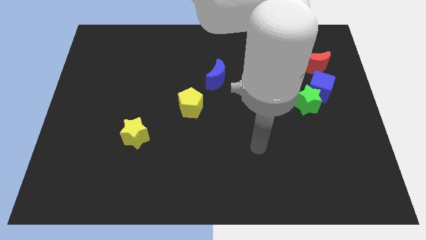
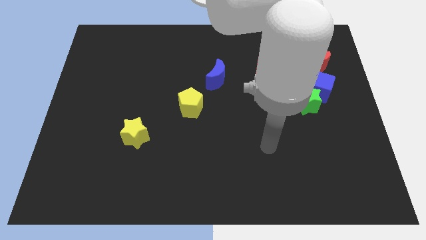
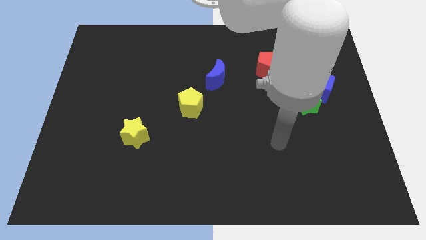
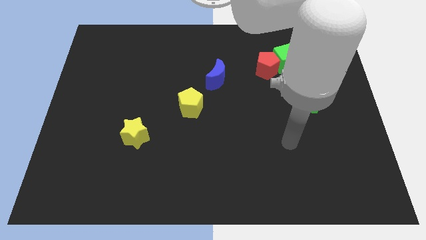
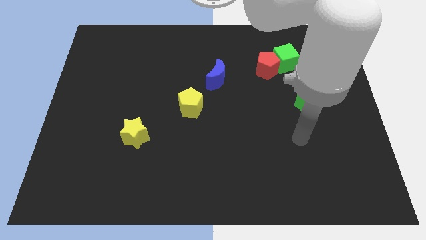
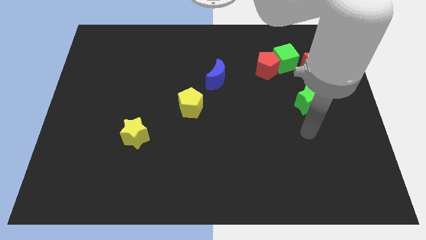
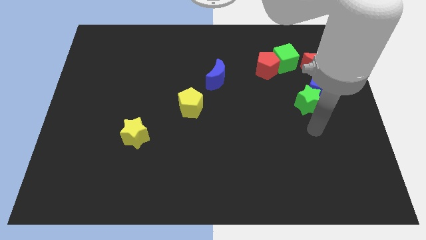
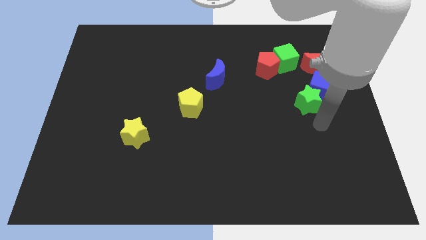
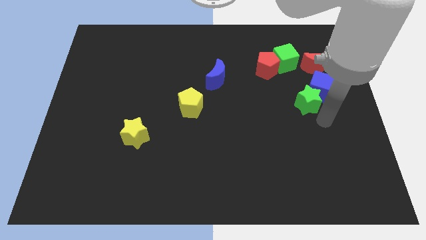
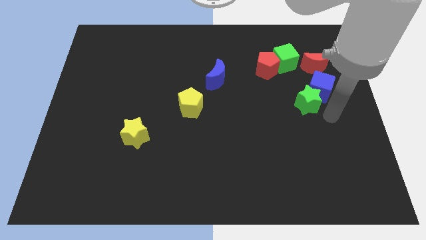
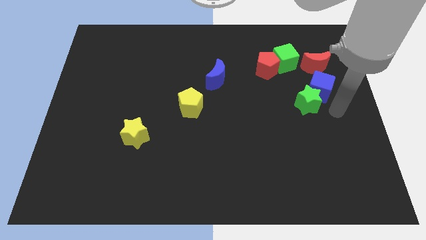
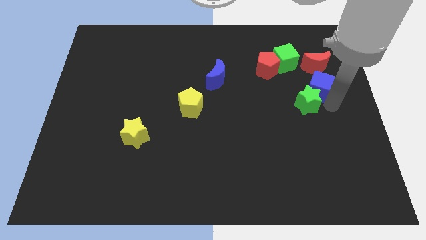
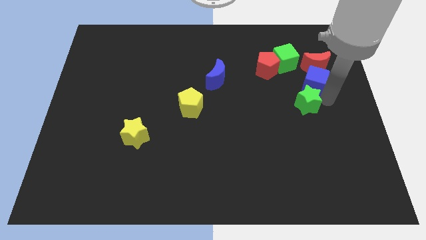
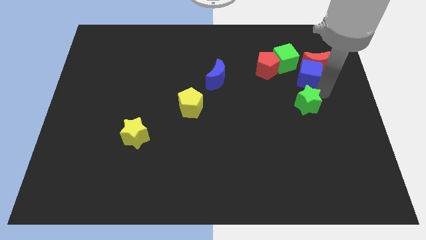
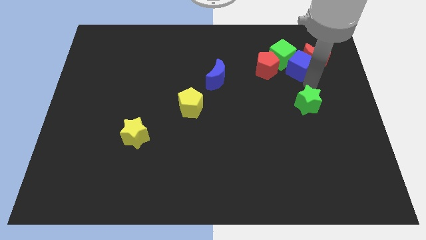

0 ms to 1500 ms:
pull the green star apart from the blue cube

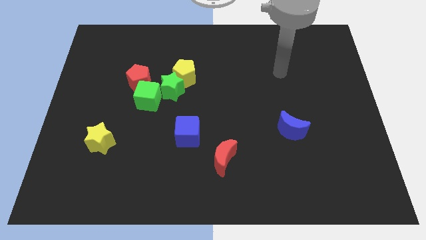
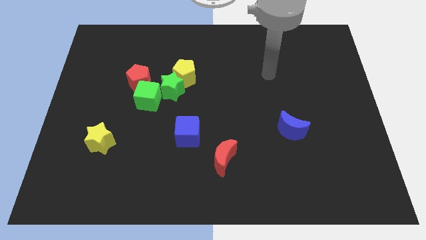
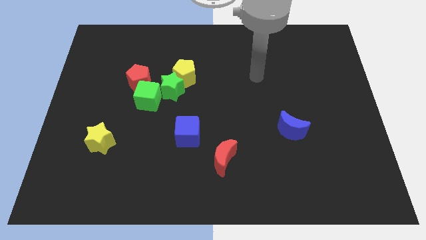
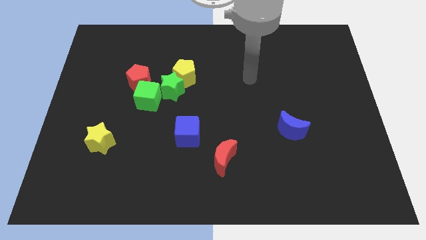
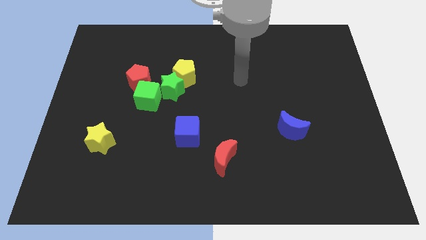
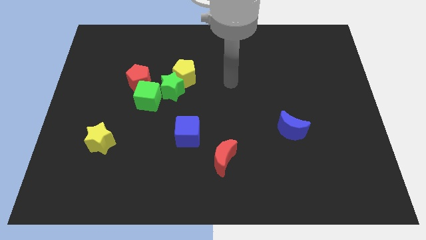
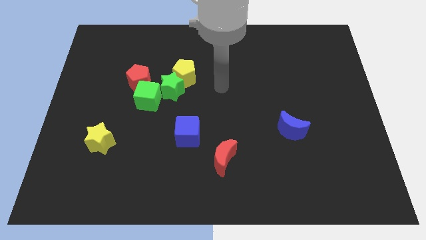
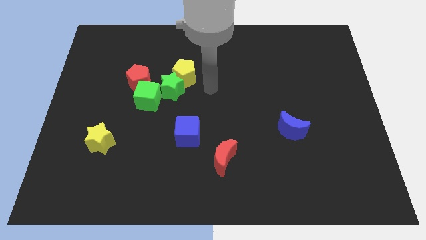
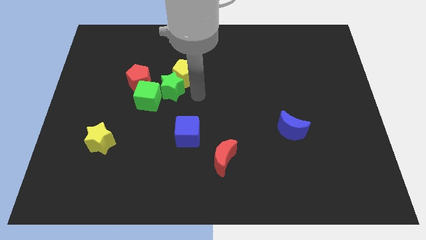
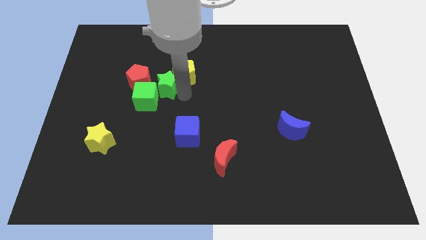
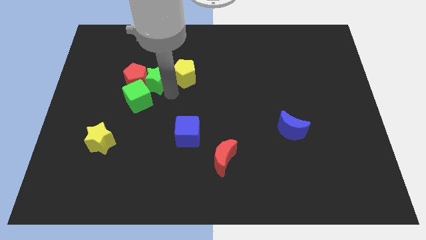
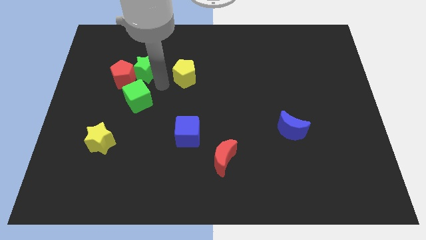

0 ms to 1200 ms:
separate the yellow pentagon from the green star

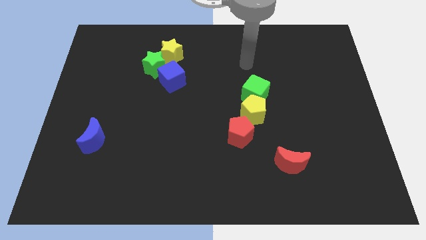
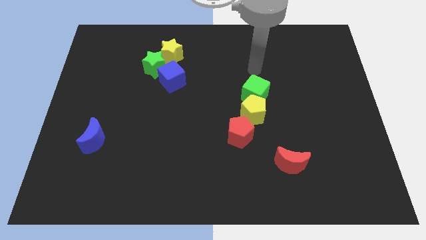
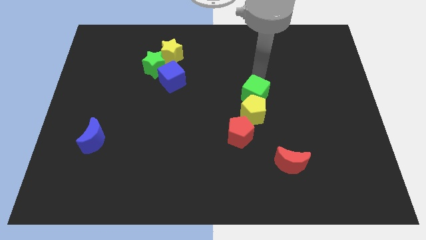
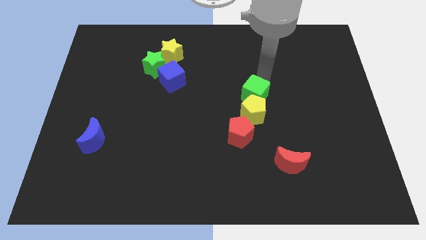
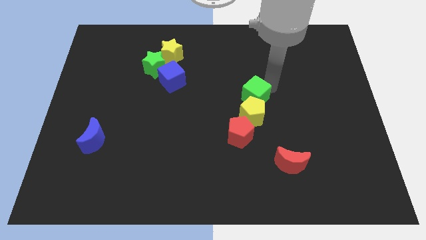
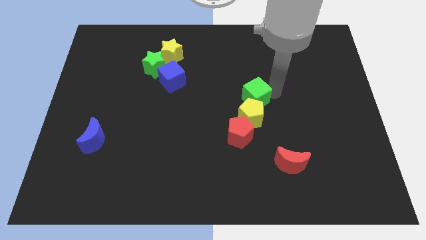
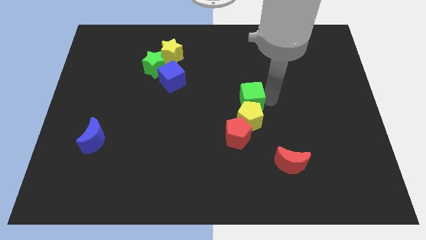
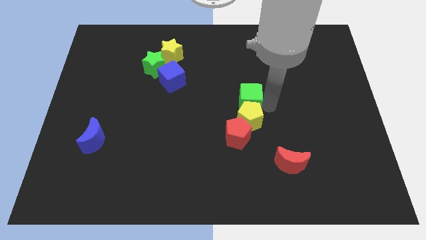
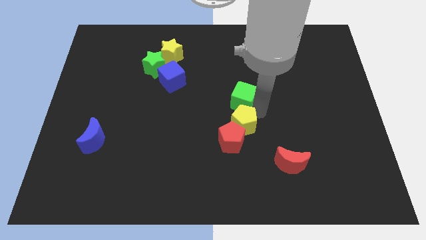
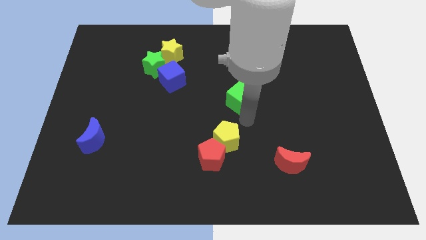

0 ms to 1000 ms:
pull the green cube apart from the yellow pentagon

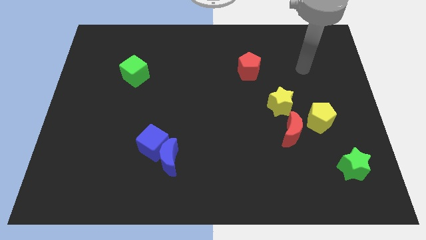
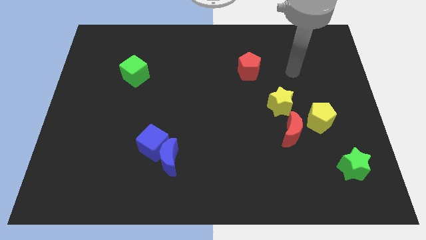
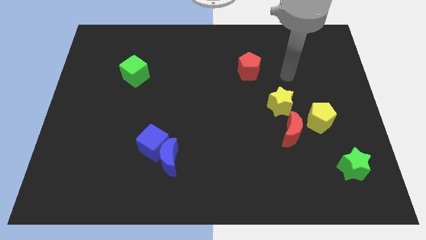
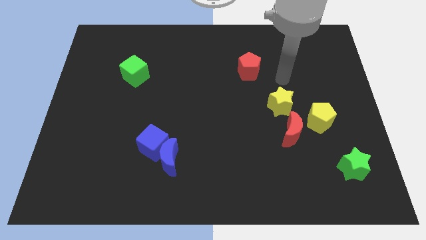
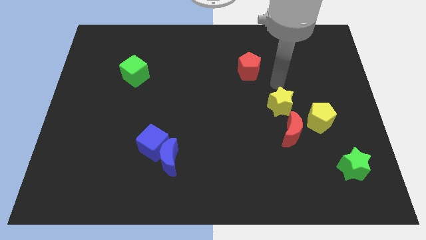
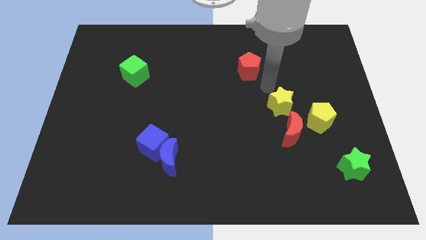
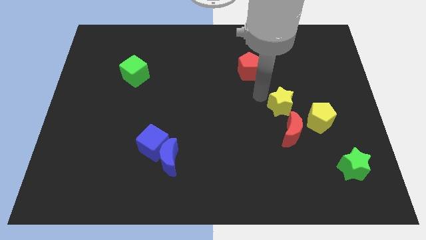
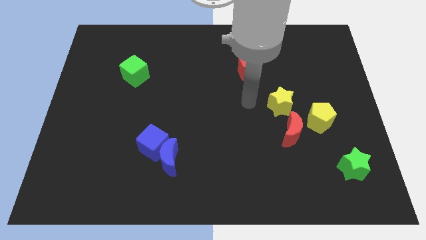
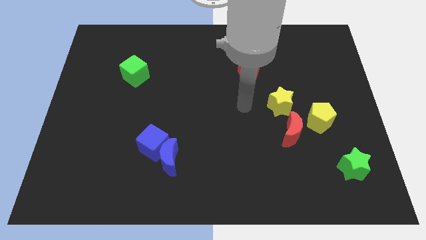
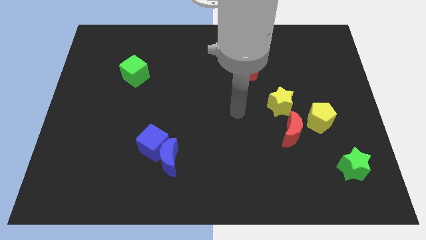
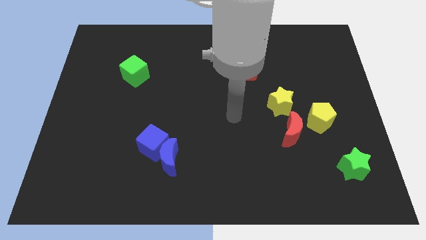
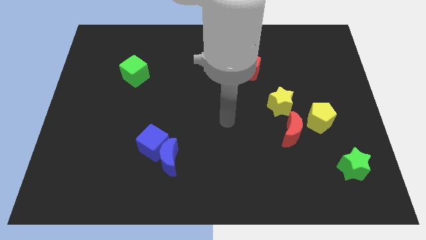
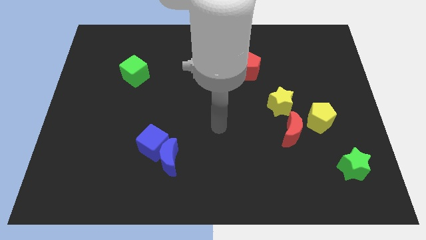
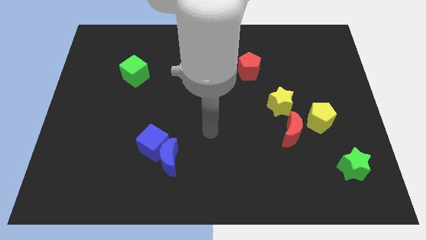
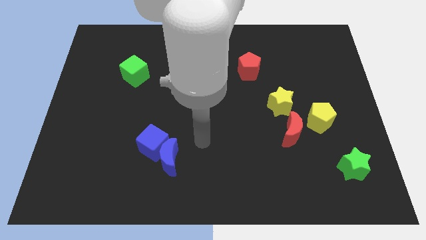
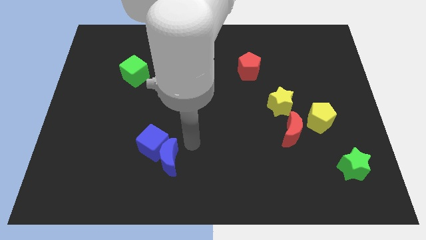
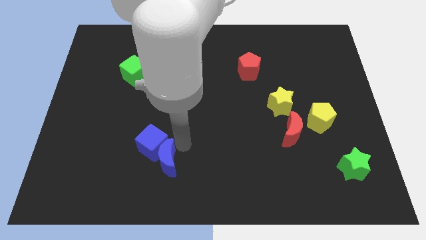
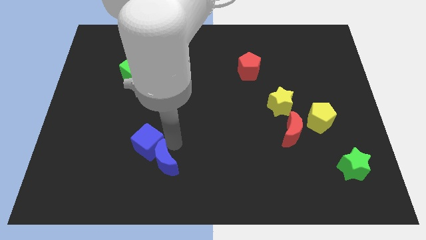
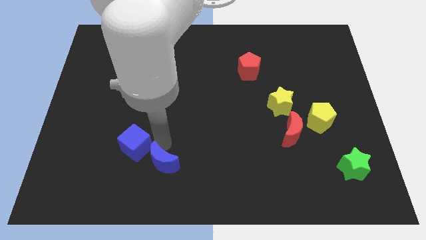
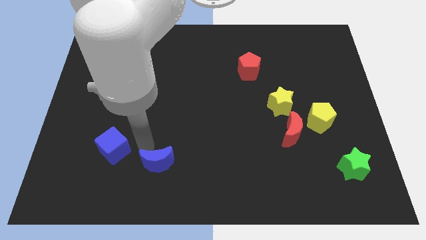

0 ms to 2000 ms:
move the blue moon away from the blue cube

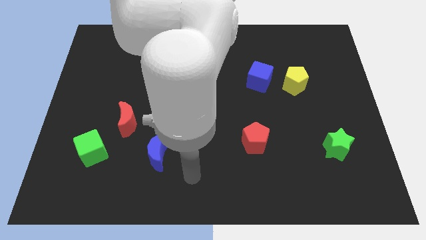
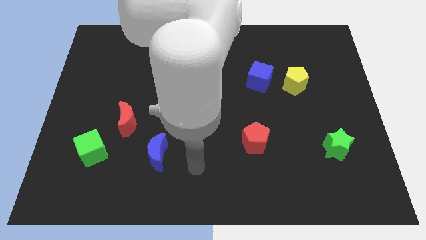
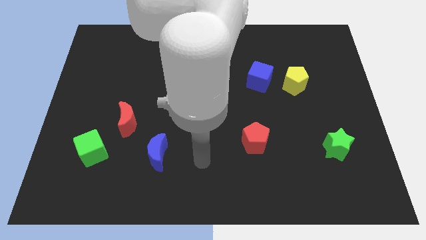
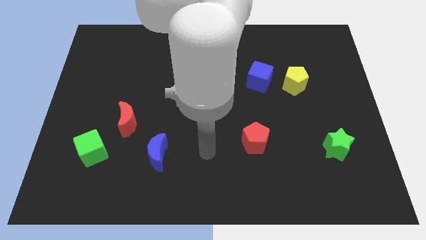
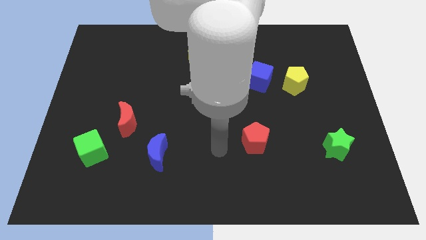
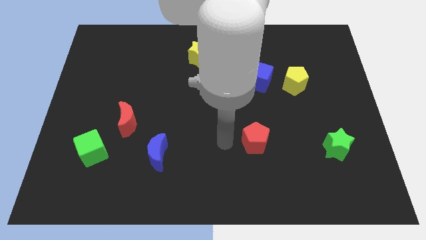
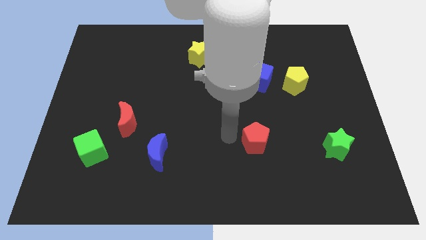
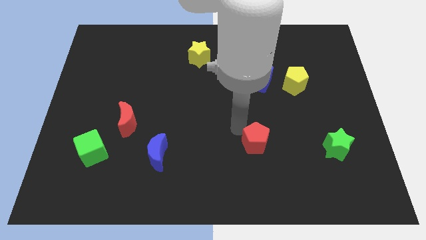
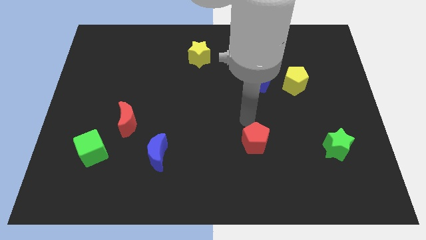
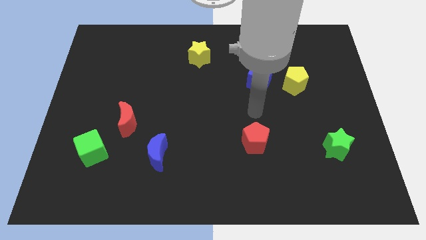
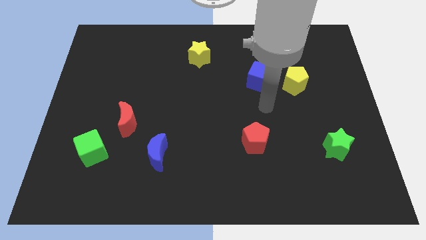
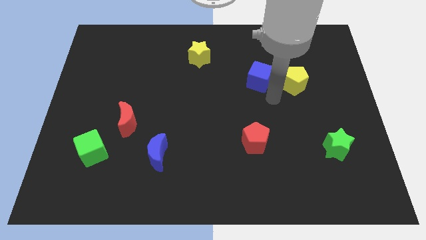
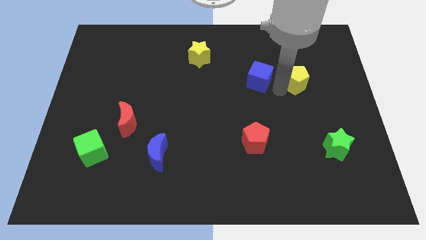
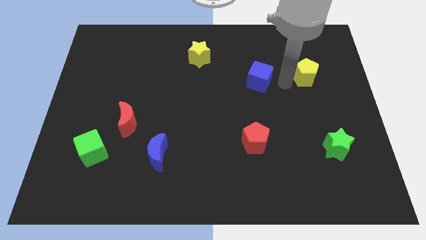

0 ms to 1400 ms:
separate the blue cube from the yellow pentagon

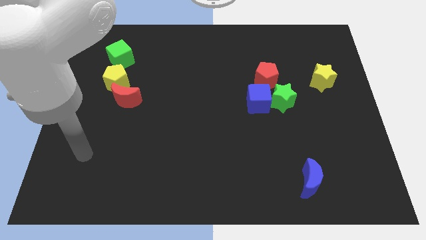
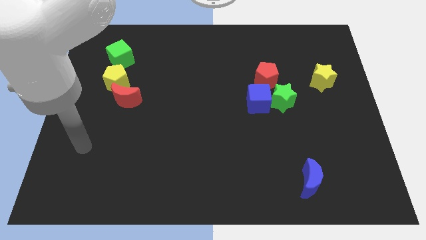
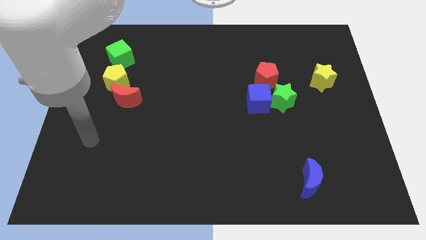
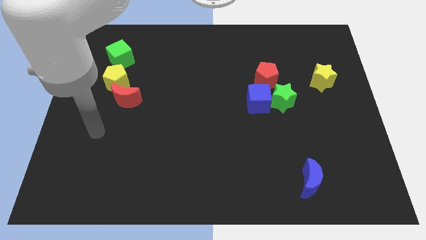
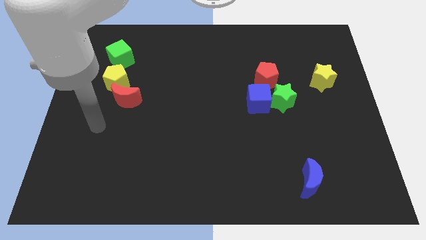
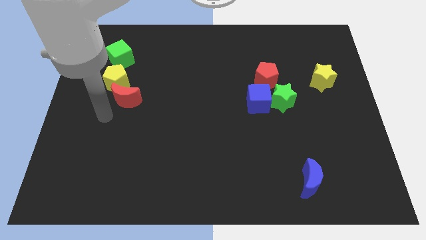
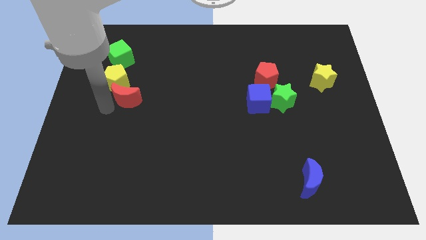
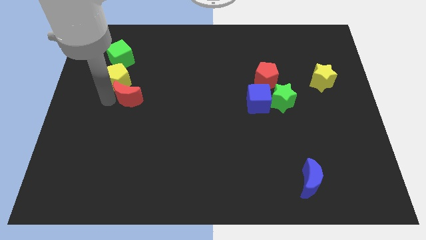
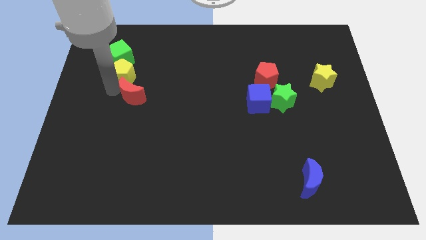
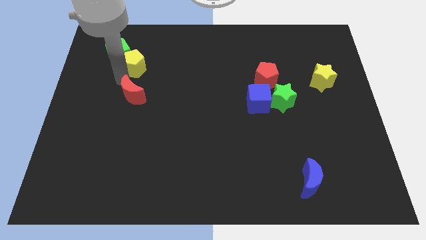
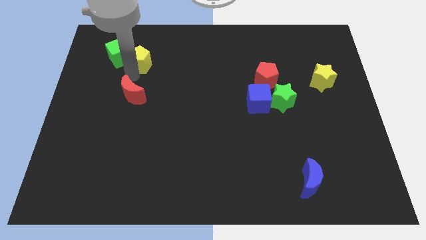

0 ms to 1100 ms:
move the red moon away from the yellow pentagon

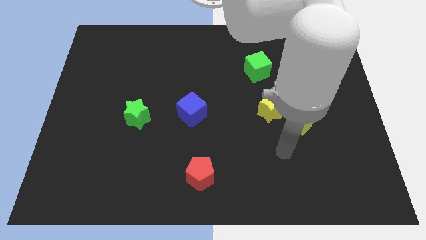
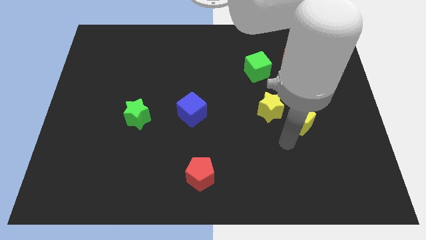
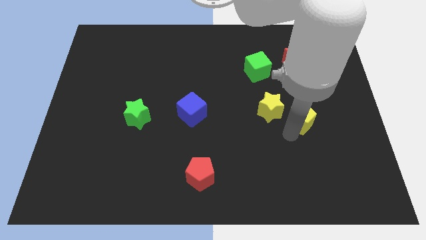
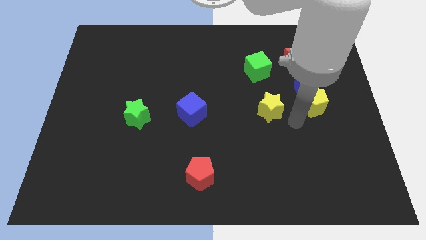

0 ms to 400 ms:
pull the yellow star apart from the yellow pentagon

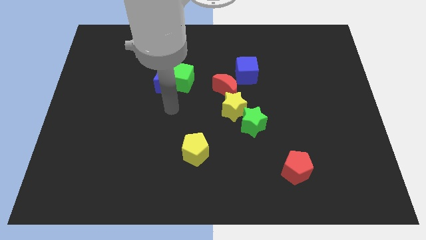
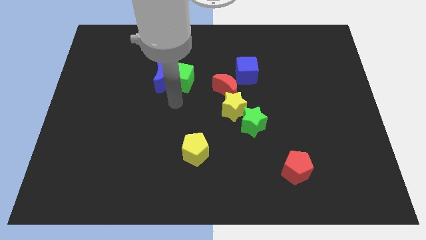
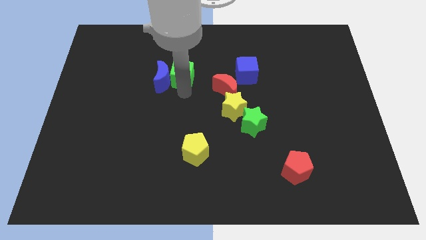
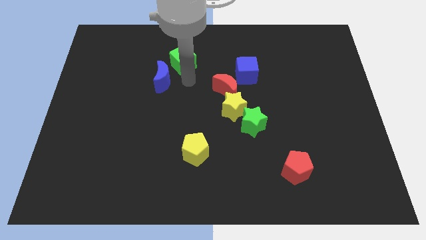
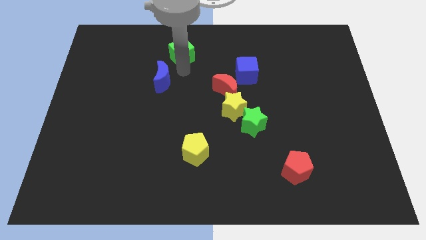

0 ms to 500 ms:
move the blue moon away from the green cube

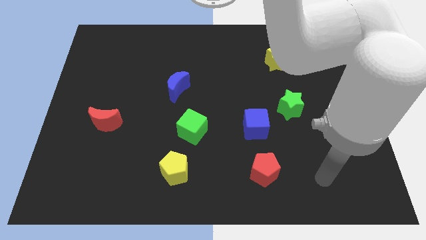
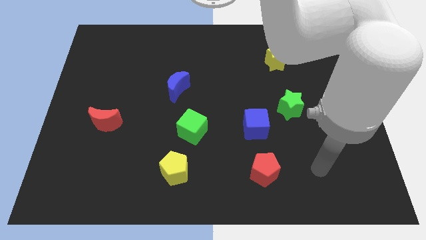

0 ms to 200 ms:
pull the blue cube apart from the green star

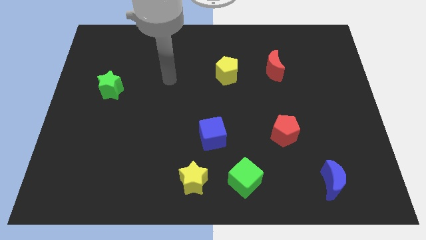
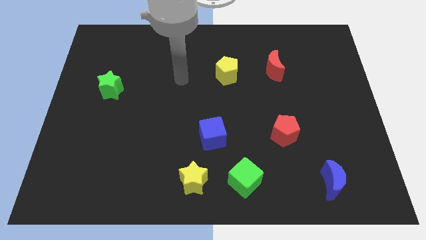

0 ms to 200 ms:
pull the green cube apart from the yellow star
